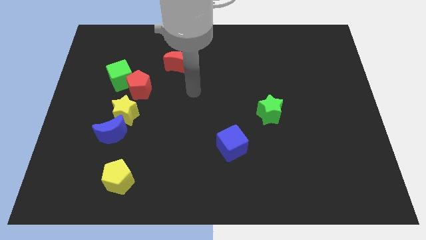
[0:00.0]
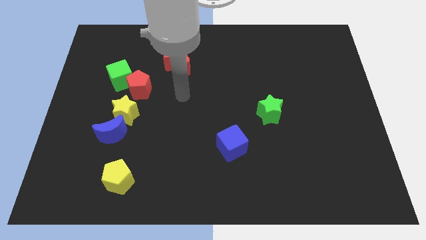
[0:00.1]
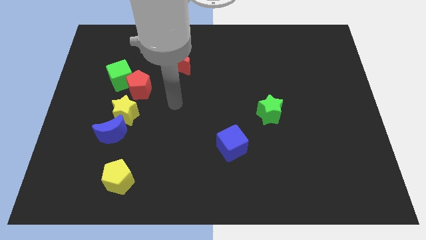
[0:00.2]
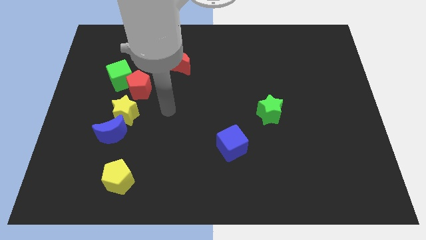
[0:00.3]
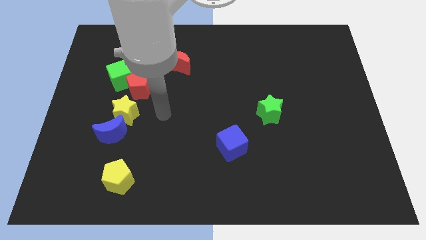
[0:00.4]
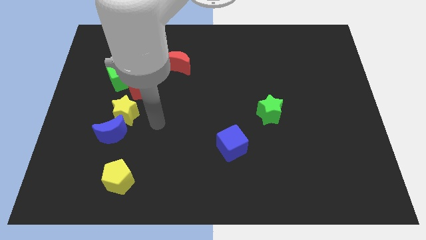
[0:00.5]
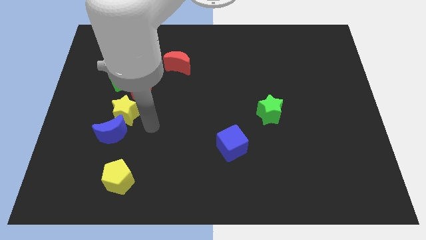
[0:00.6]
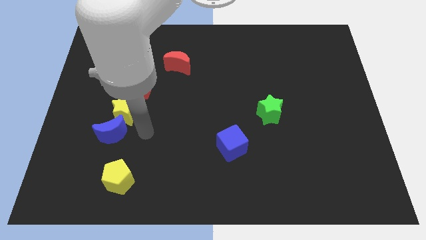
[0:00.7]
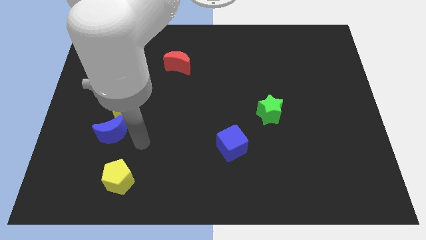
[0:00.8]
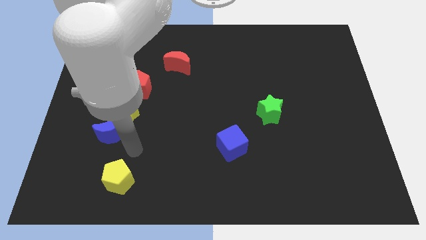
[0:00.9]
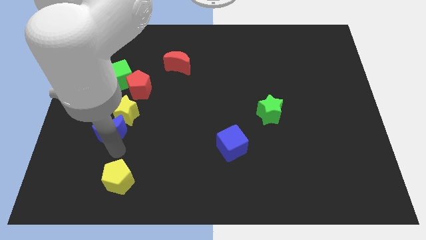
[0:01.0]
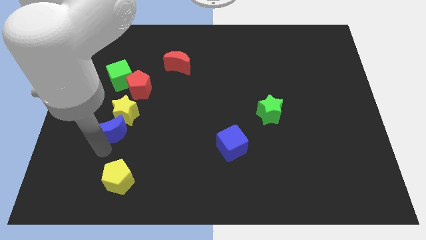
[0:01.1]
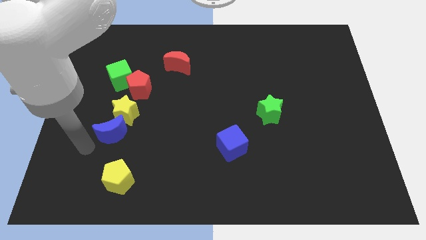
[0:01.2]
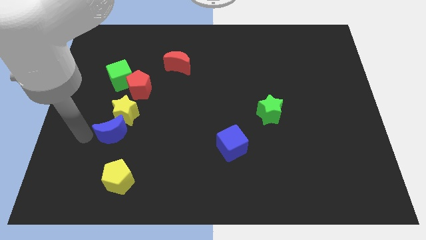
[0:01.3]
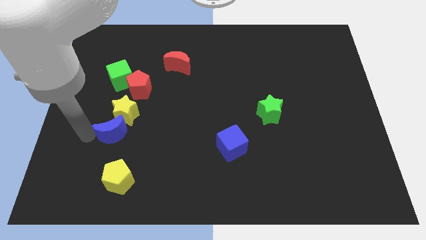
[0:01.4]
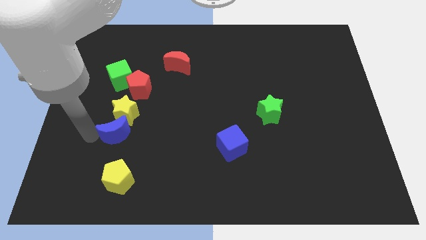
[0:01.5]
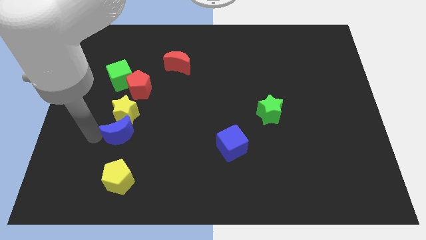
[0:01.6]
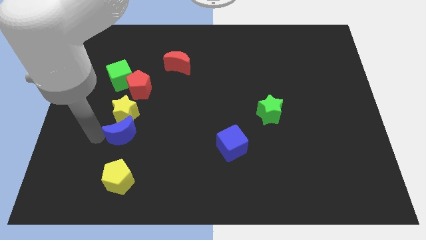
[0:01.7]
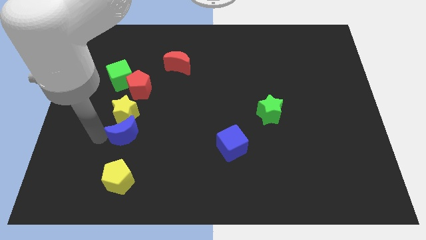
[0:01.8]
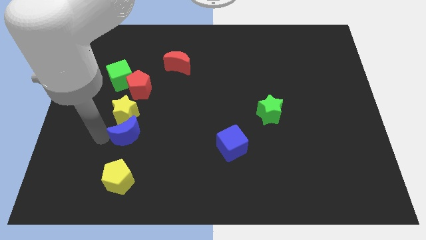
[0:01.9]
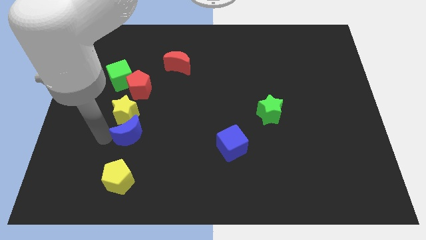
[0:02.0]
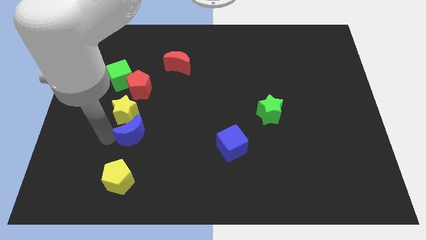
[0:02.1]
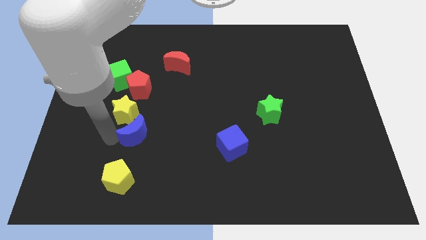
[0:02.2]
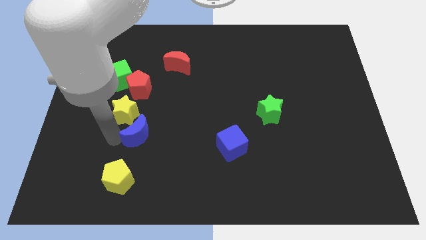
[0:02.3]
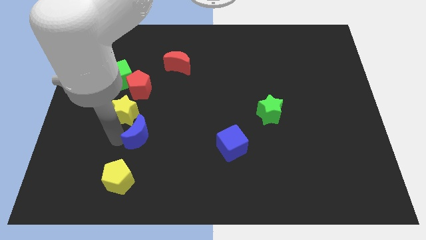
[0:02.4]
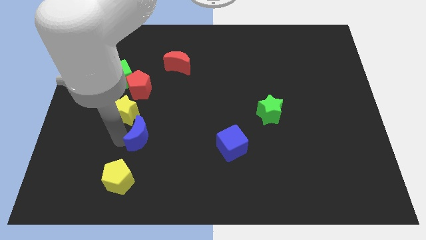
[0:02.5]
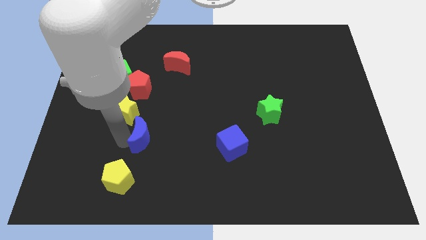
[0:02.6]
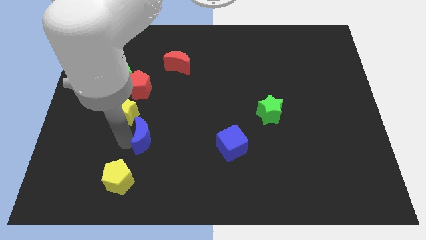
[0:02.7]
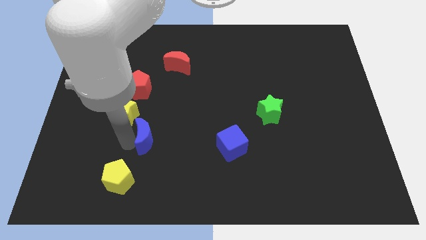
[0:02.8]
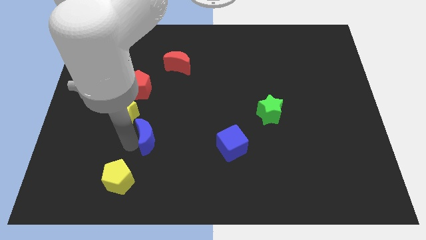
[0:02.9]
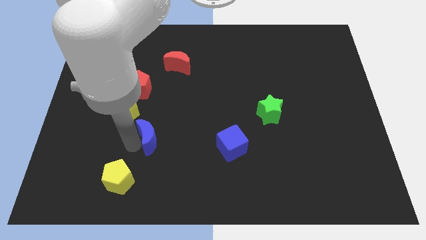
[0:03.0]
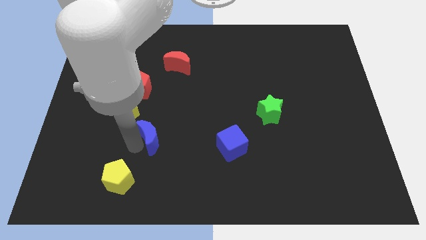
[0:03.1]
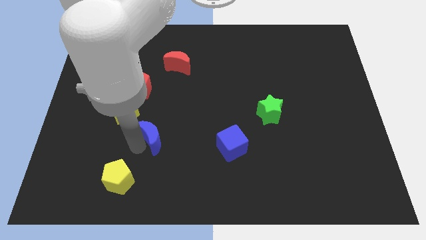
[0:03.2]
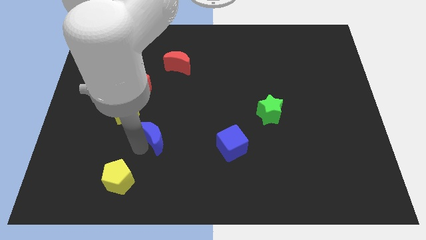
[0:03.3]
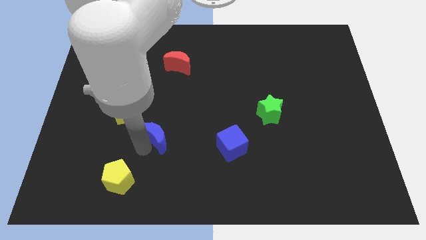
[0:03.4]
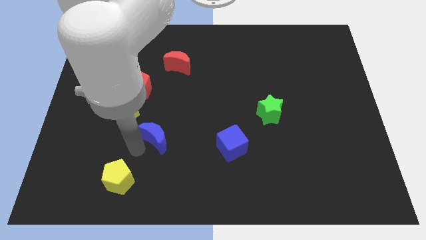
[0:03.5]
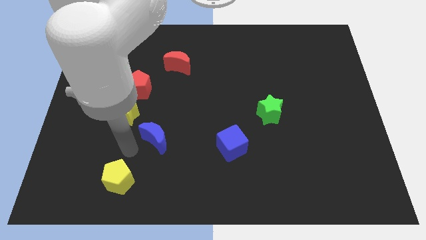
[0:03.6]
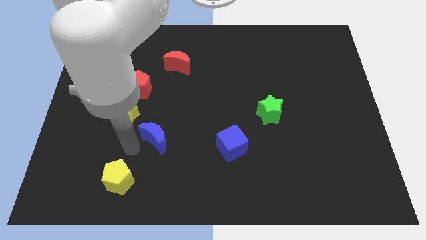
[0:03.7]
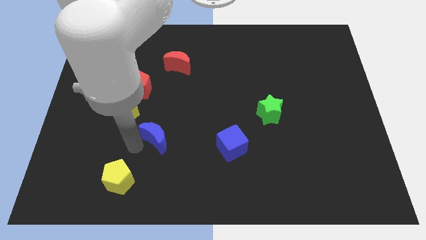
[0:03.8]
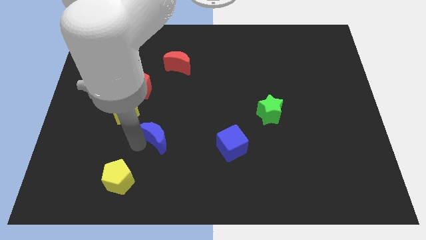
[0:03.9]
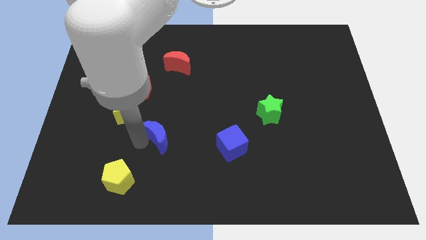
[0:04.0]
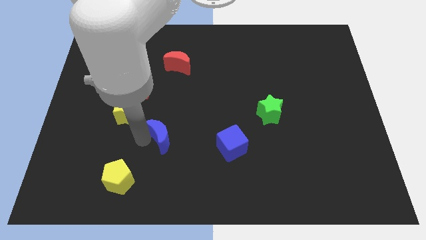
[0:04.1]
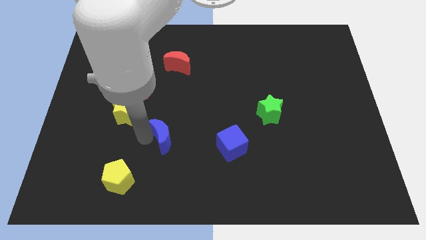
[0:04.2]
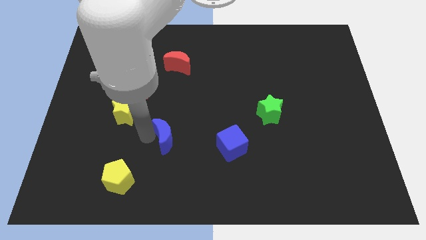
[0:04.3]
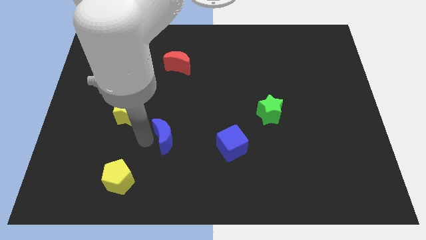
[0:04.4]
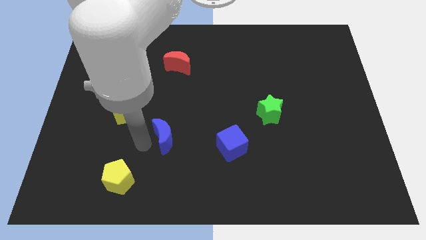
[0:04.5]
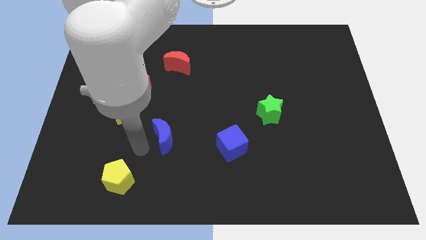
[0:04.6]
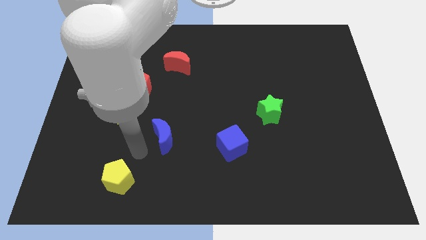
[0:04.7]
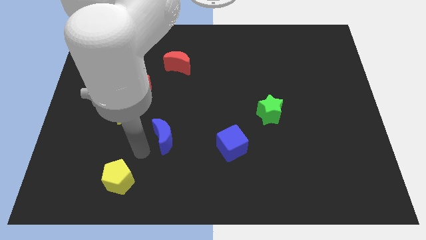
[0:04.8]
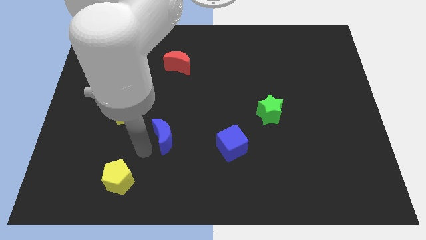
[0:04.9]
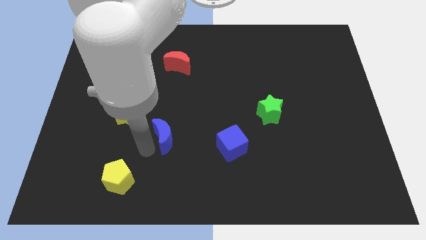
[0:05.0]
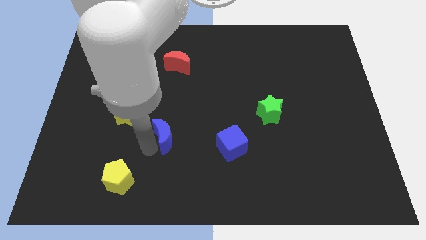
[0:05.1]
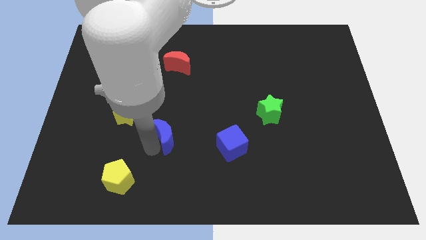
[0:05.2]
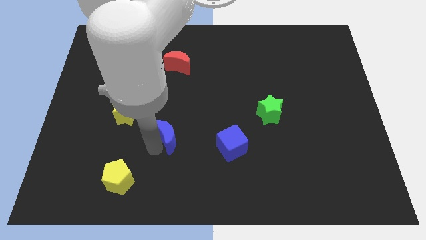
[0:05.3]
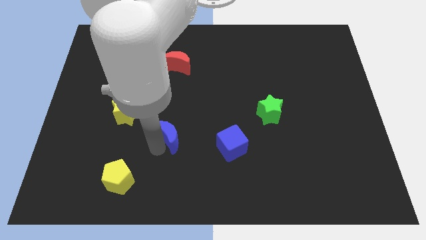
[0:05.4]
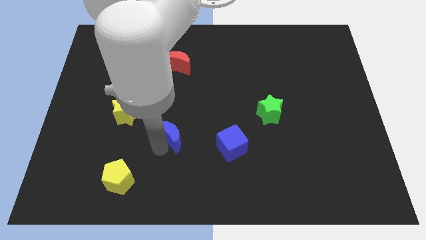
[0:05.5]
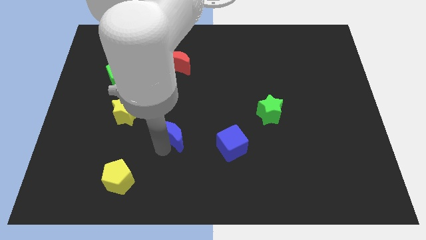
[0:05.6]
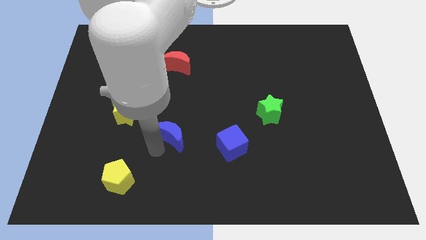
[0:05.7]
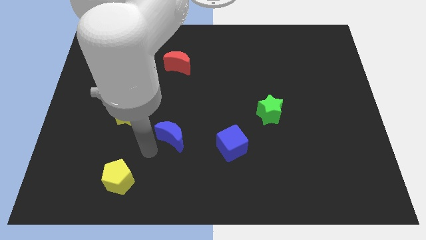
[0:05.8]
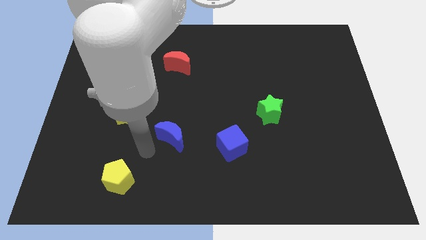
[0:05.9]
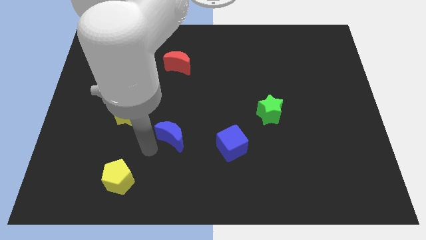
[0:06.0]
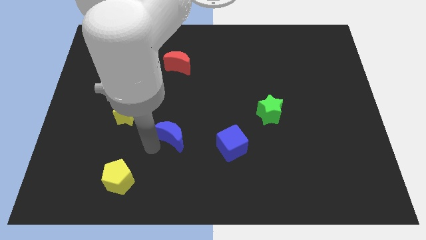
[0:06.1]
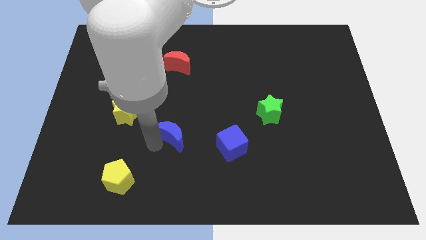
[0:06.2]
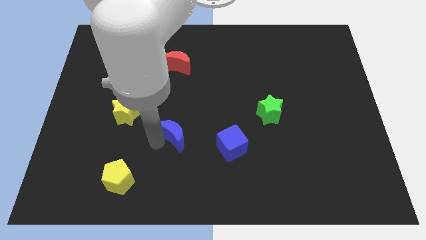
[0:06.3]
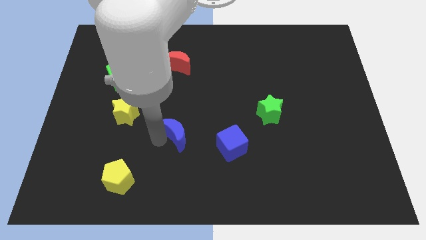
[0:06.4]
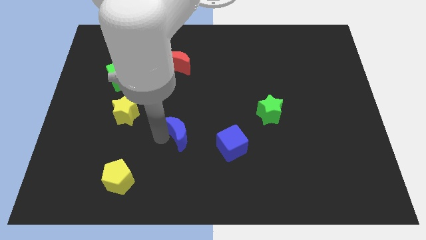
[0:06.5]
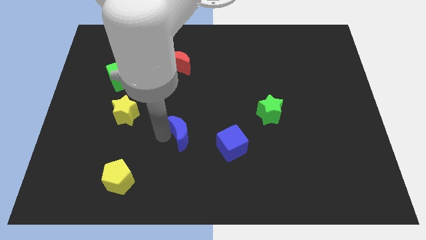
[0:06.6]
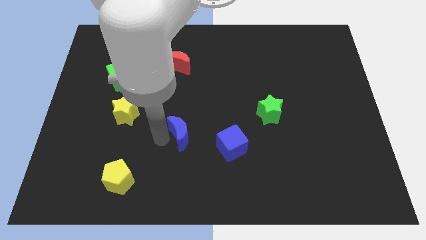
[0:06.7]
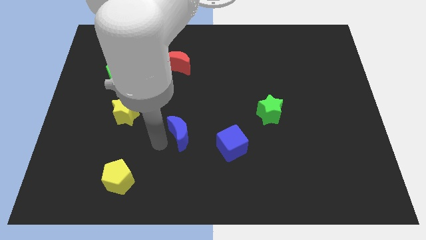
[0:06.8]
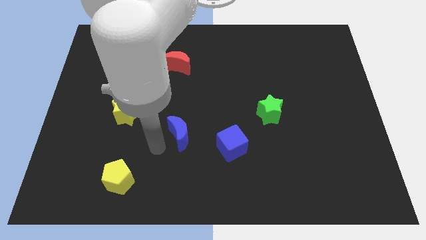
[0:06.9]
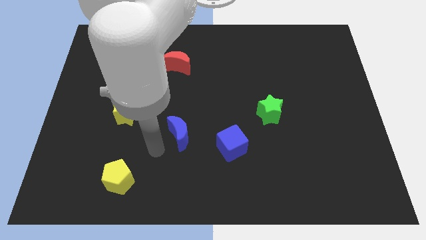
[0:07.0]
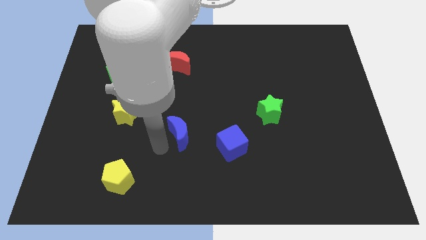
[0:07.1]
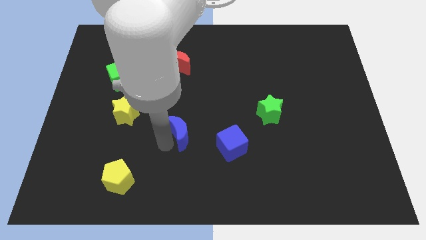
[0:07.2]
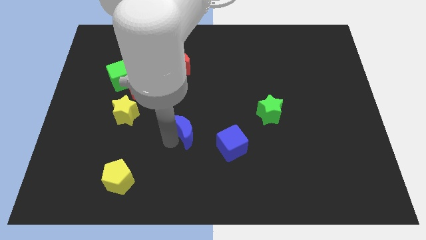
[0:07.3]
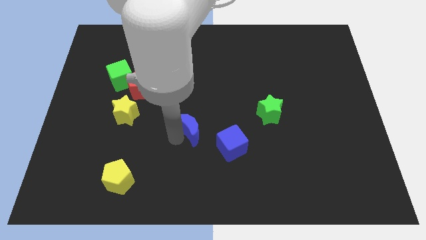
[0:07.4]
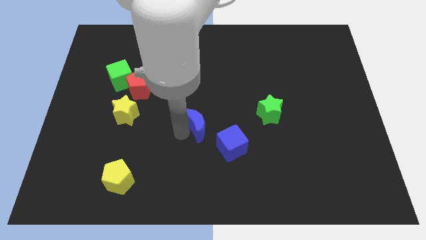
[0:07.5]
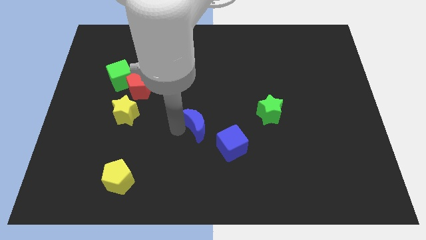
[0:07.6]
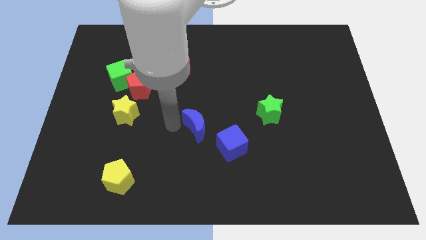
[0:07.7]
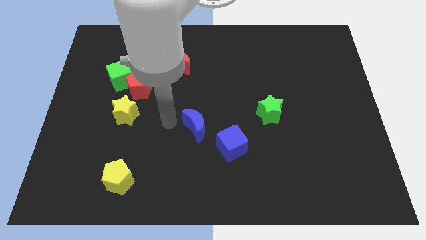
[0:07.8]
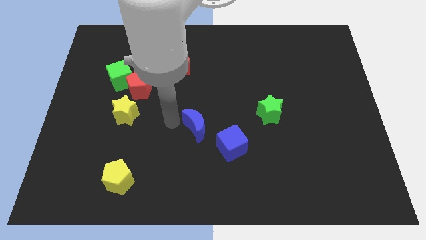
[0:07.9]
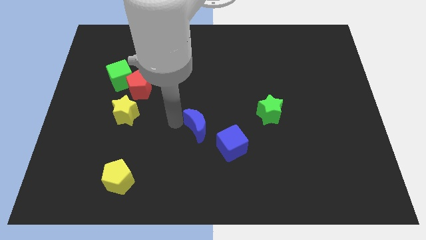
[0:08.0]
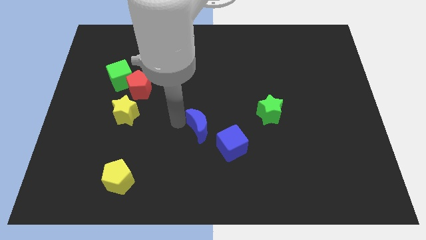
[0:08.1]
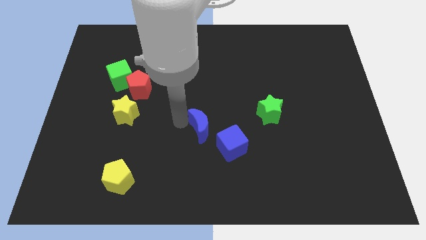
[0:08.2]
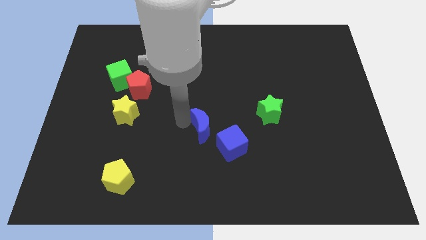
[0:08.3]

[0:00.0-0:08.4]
move the blue moon right
